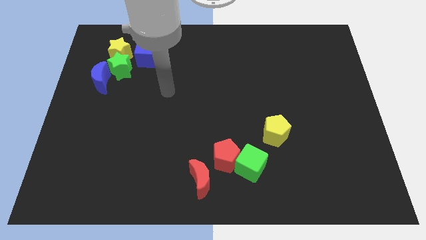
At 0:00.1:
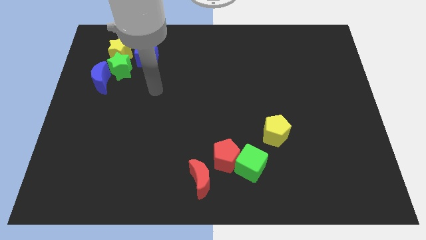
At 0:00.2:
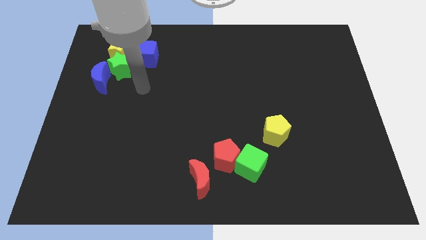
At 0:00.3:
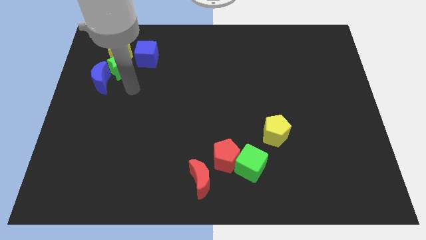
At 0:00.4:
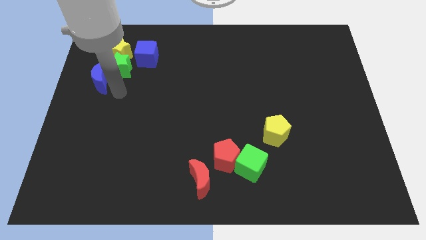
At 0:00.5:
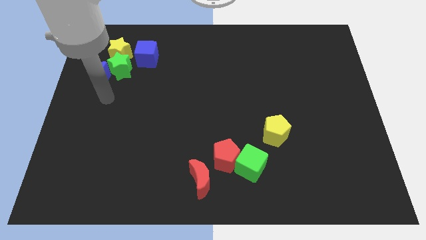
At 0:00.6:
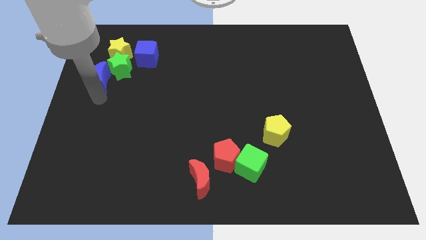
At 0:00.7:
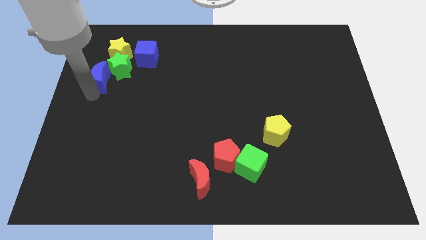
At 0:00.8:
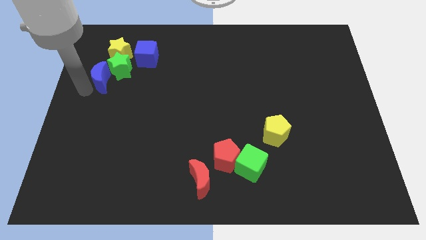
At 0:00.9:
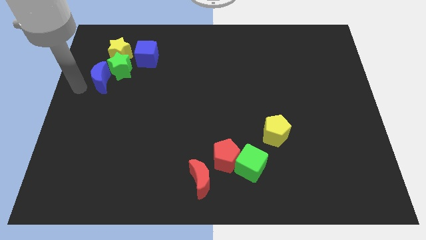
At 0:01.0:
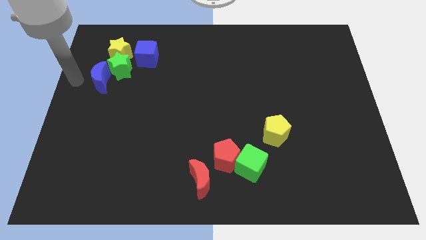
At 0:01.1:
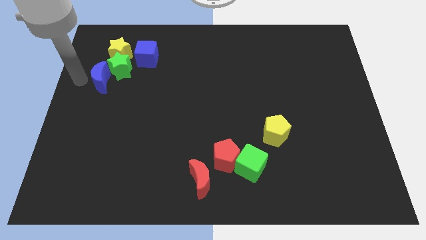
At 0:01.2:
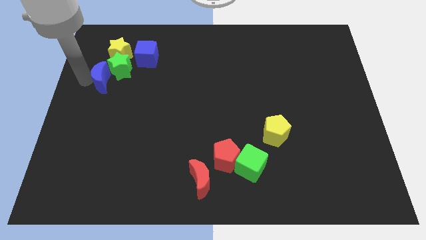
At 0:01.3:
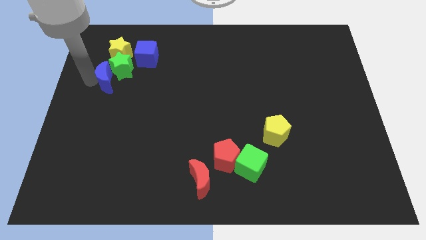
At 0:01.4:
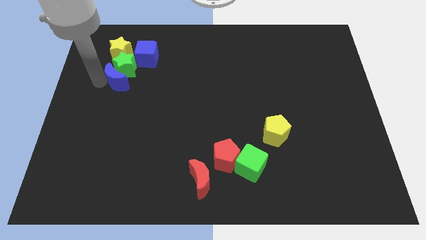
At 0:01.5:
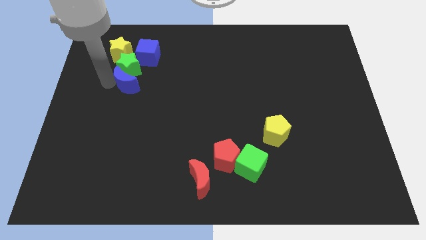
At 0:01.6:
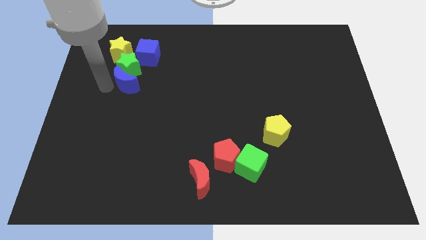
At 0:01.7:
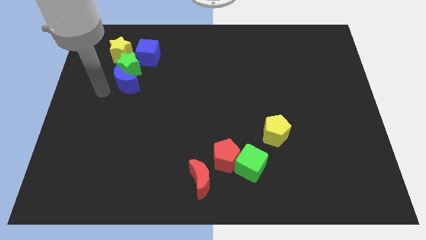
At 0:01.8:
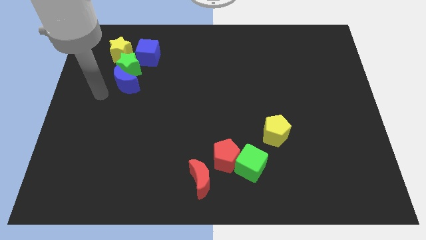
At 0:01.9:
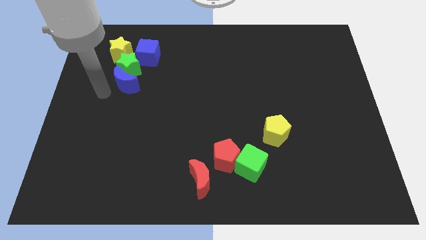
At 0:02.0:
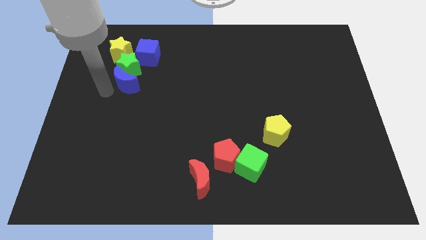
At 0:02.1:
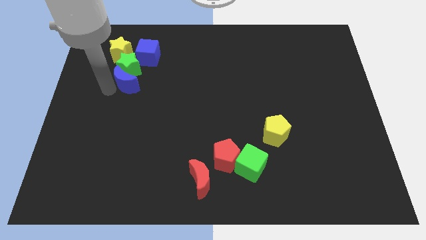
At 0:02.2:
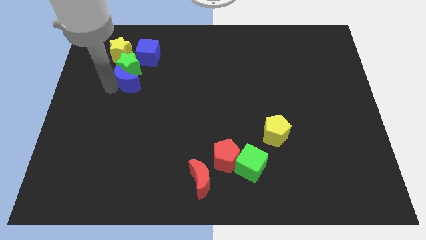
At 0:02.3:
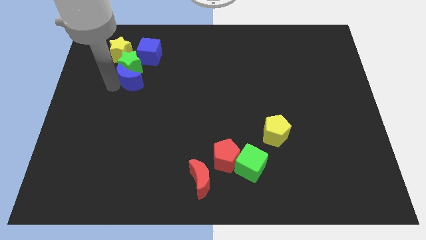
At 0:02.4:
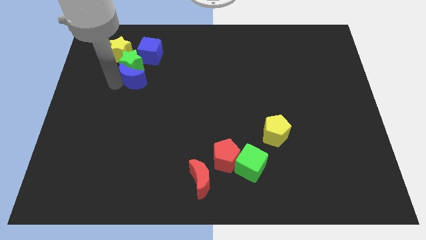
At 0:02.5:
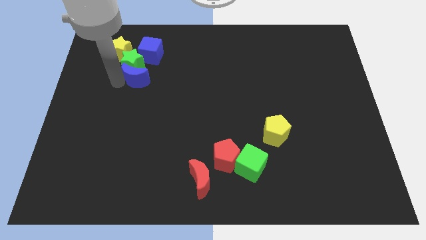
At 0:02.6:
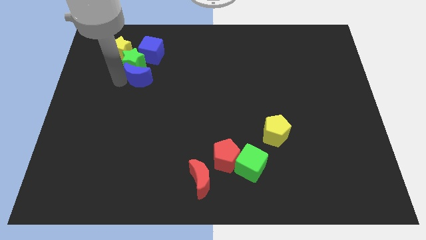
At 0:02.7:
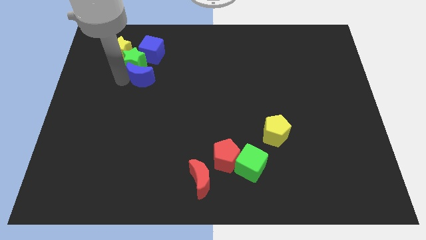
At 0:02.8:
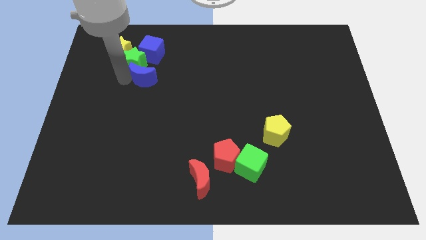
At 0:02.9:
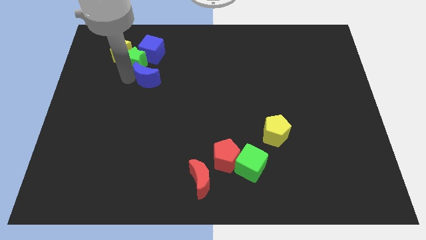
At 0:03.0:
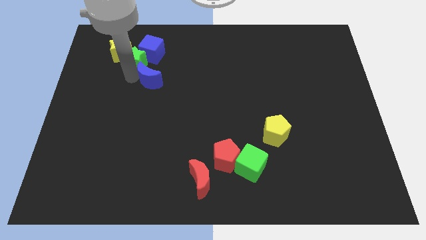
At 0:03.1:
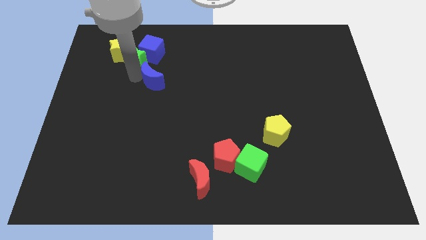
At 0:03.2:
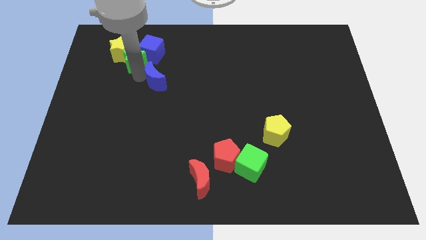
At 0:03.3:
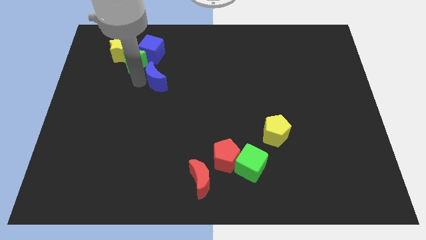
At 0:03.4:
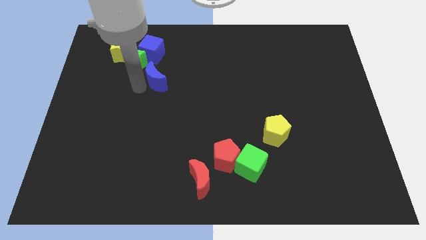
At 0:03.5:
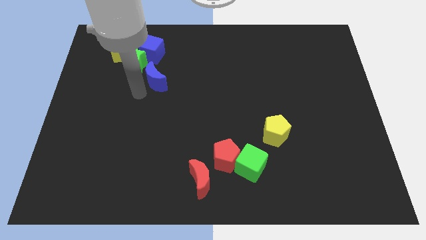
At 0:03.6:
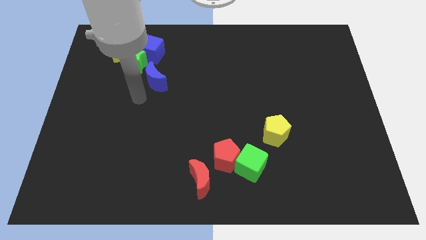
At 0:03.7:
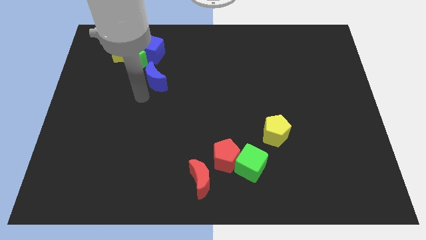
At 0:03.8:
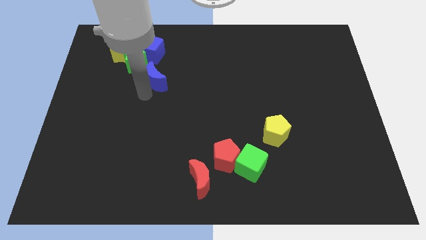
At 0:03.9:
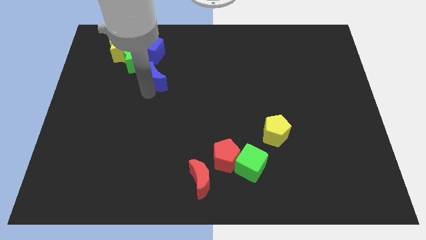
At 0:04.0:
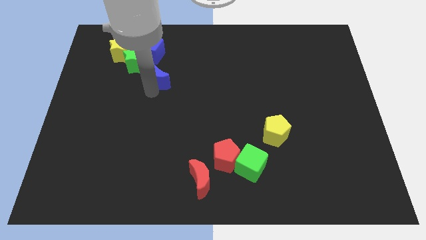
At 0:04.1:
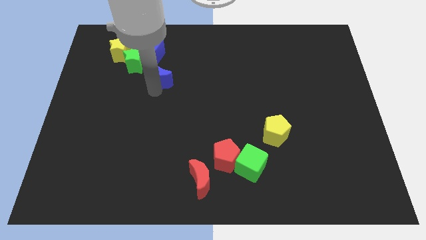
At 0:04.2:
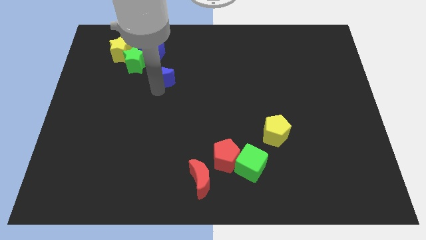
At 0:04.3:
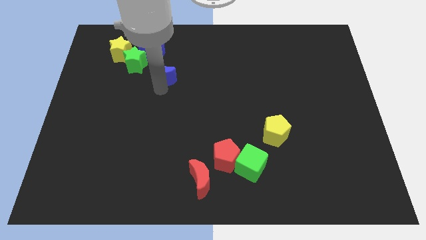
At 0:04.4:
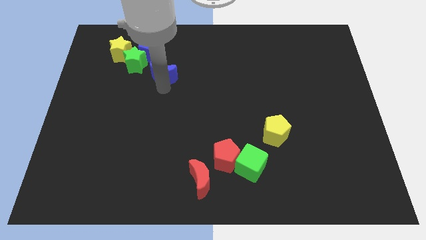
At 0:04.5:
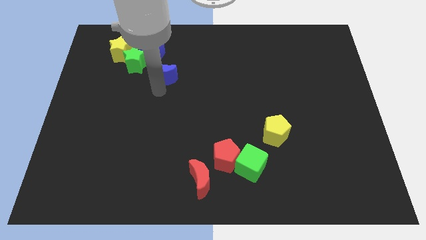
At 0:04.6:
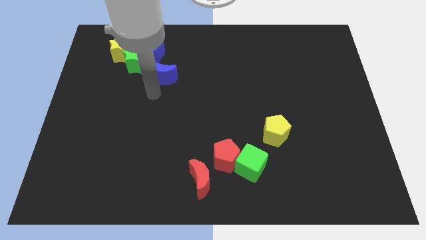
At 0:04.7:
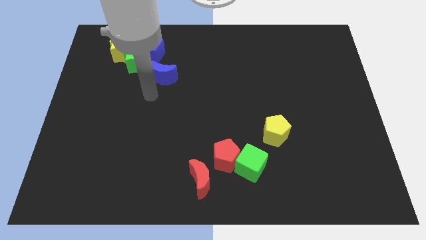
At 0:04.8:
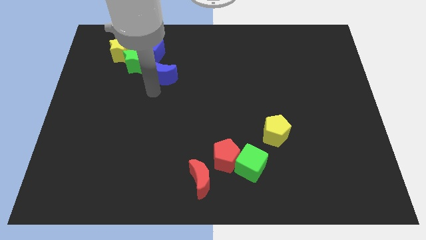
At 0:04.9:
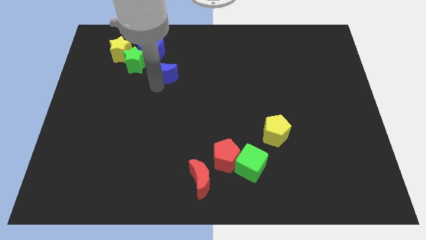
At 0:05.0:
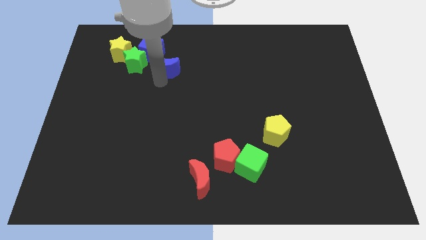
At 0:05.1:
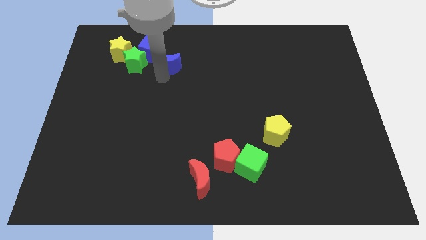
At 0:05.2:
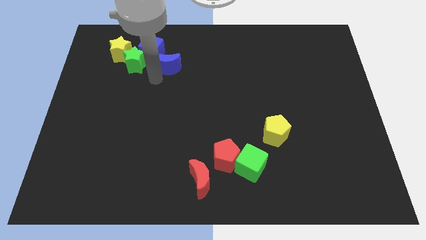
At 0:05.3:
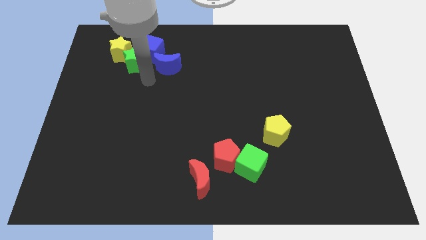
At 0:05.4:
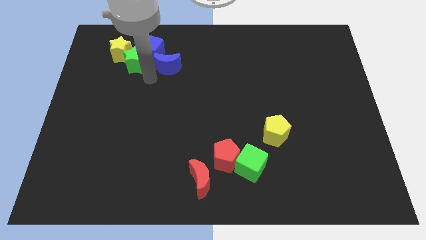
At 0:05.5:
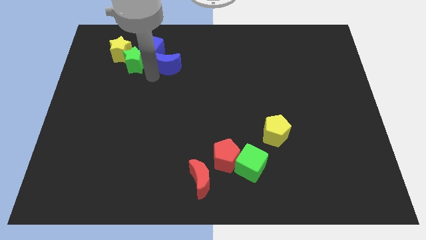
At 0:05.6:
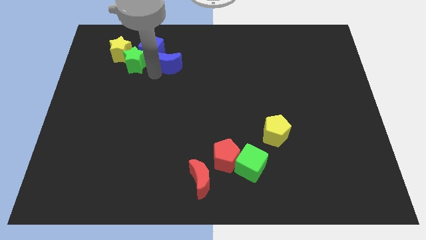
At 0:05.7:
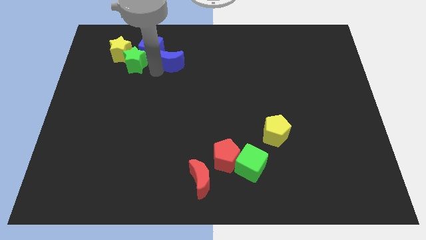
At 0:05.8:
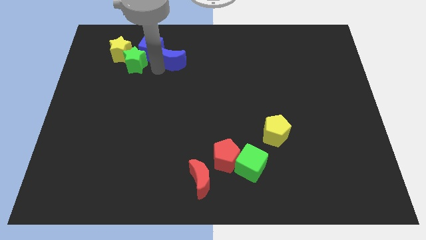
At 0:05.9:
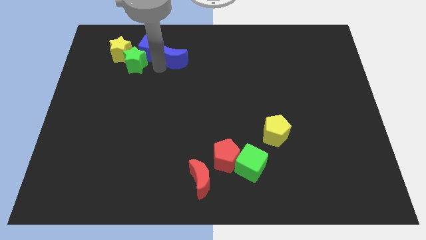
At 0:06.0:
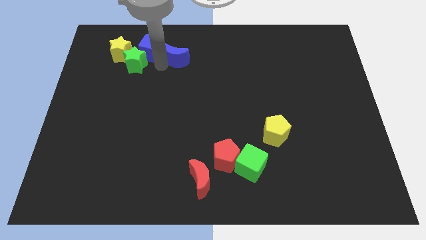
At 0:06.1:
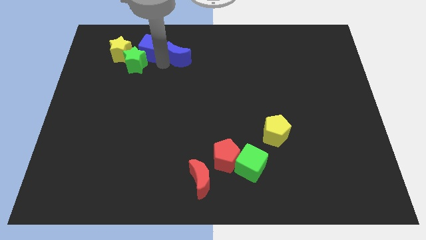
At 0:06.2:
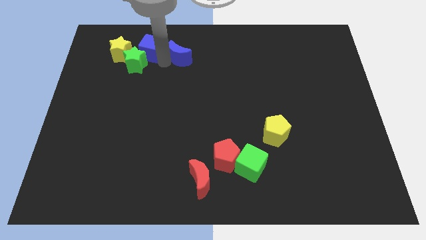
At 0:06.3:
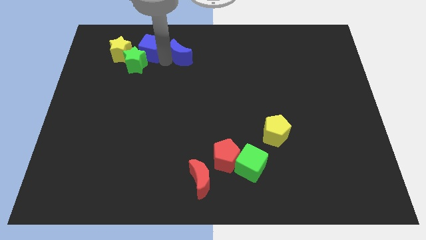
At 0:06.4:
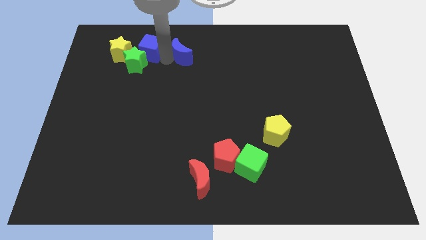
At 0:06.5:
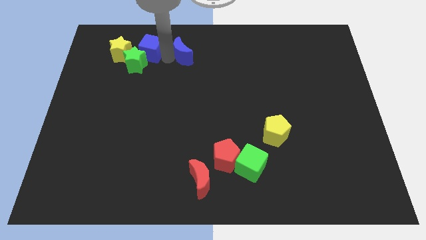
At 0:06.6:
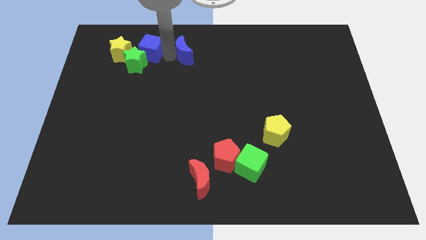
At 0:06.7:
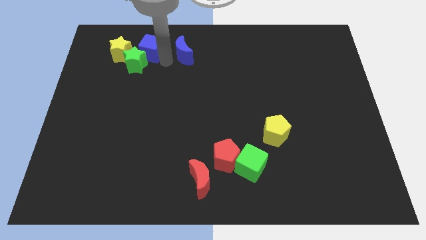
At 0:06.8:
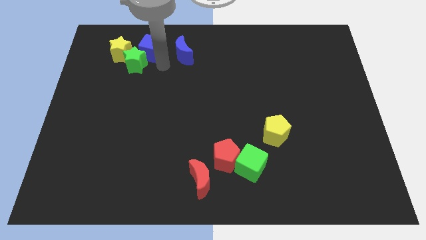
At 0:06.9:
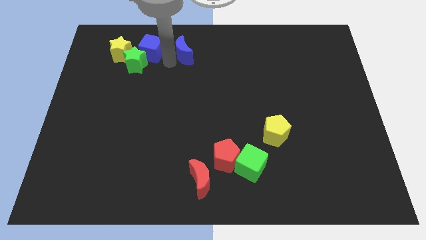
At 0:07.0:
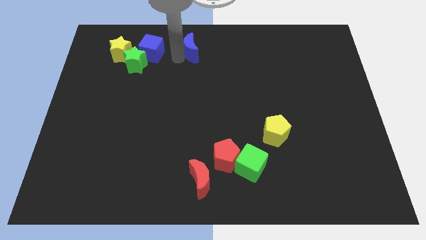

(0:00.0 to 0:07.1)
move the blue moon to the towards your base
